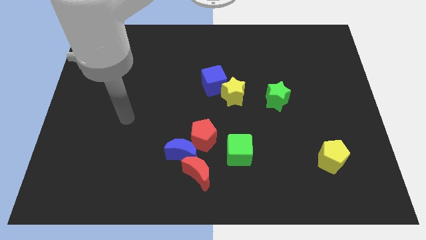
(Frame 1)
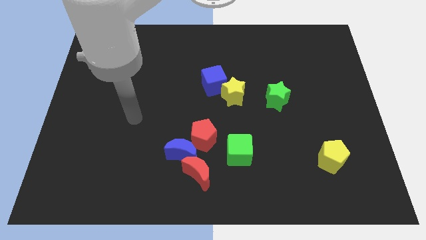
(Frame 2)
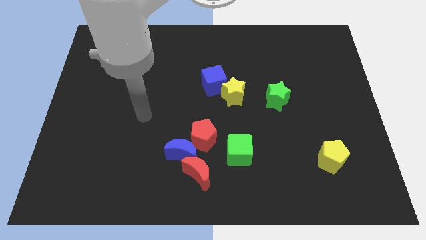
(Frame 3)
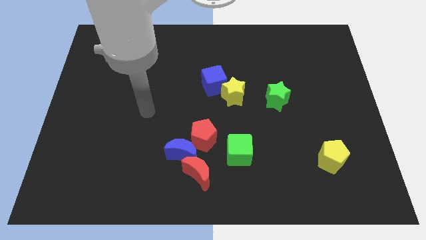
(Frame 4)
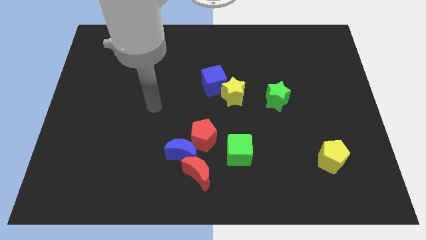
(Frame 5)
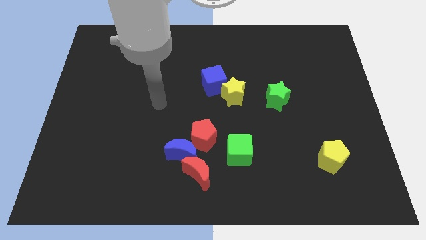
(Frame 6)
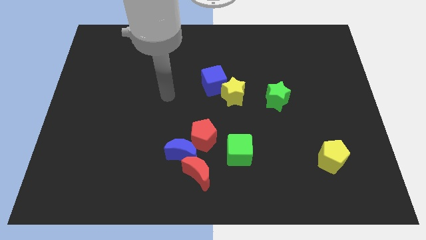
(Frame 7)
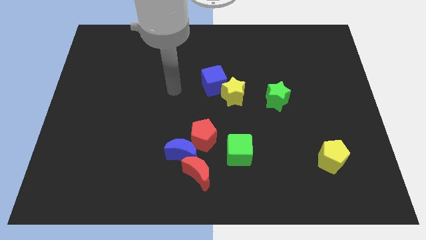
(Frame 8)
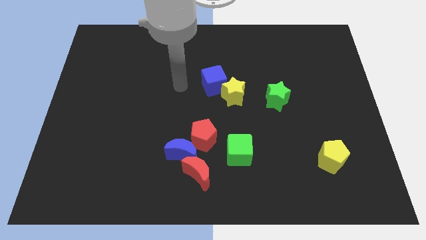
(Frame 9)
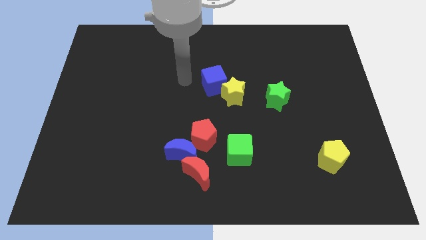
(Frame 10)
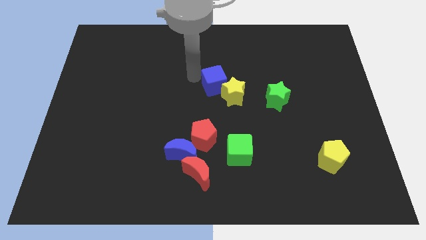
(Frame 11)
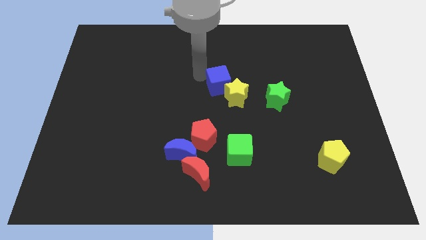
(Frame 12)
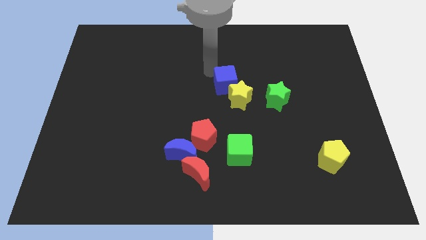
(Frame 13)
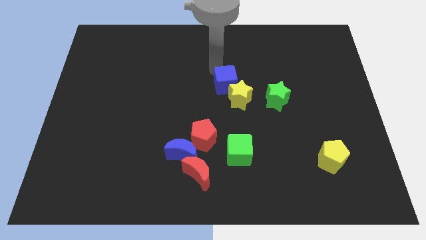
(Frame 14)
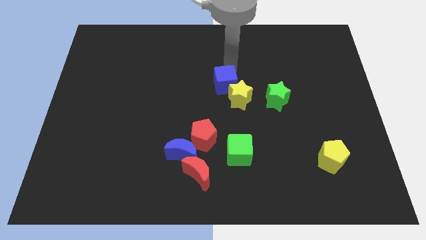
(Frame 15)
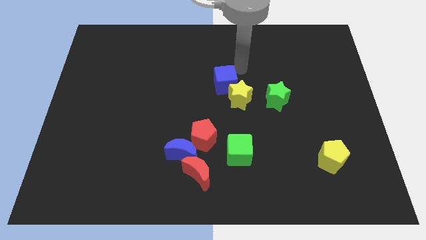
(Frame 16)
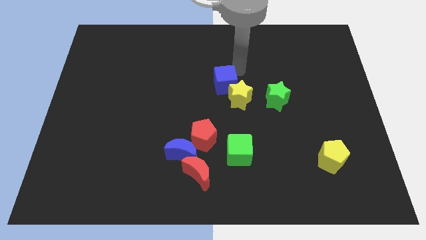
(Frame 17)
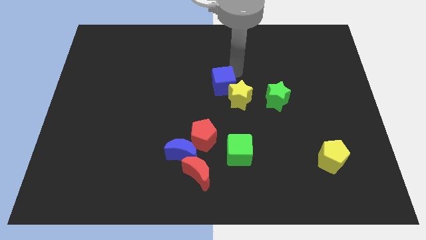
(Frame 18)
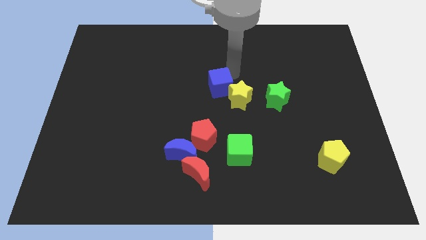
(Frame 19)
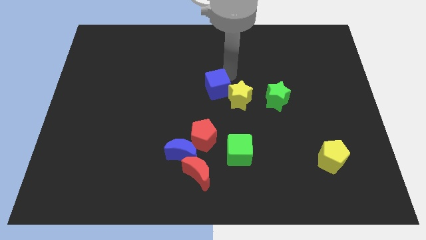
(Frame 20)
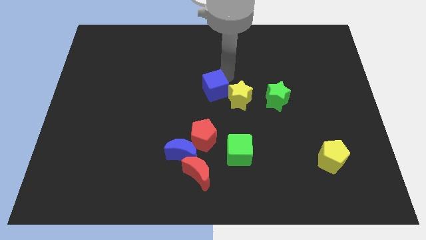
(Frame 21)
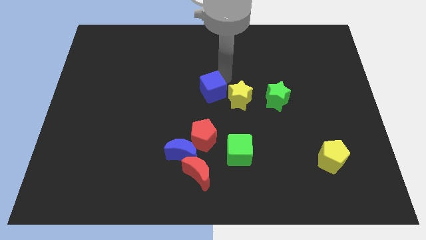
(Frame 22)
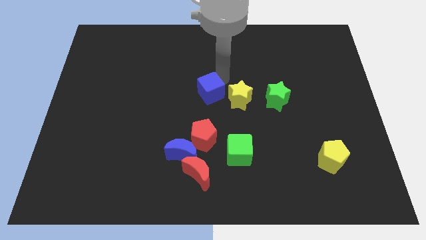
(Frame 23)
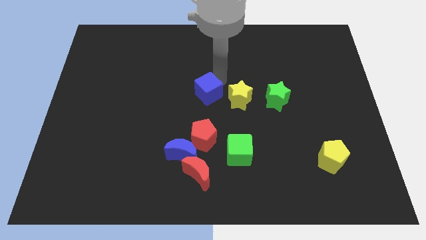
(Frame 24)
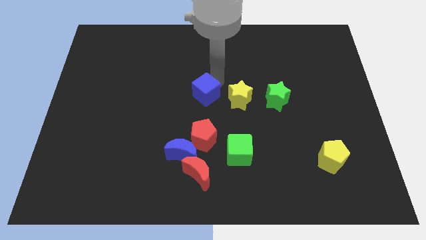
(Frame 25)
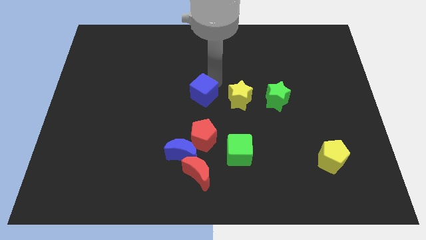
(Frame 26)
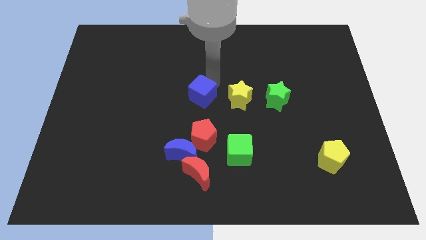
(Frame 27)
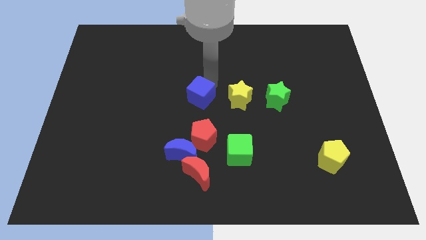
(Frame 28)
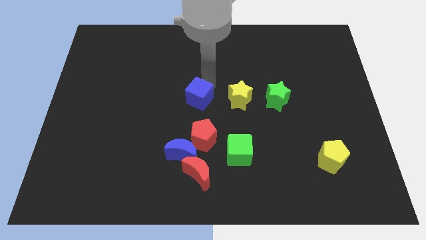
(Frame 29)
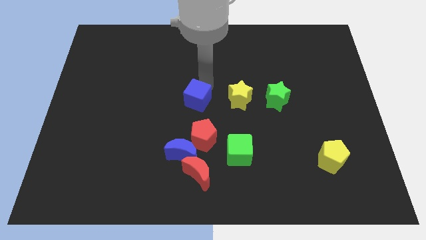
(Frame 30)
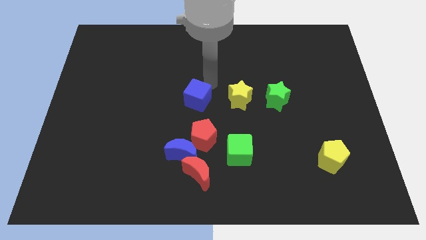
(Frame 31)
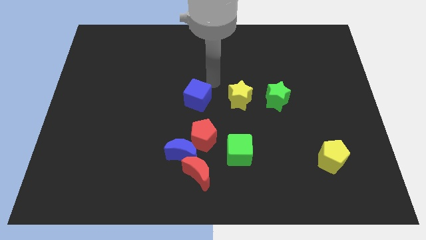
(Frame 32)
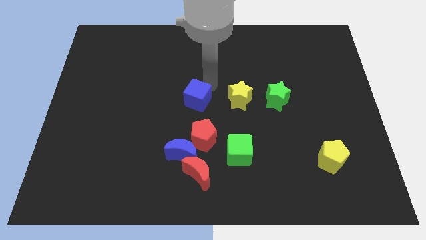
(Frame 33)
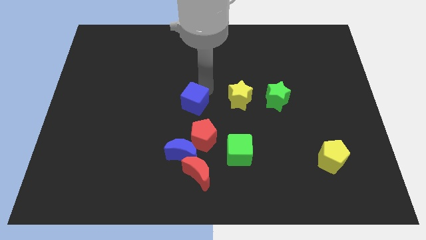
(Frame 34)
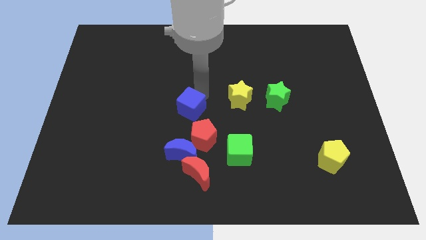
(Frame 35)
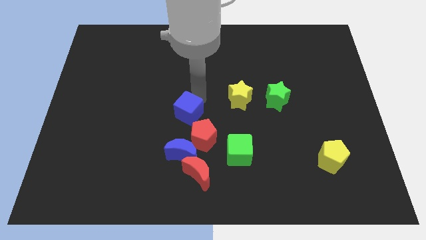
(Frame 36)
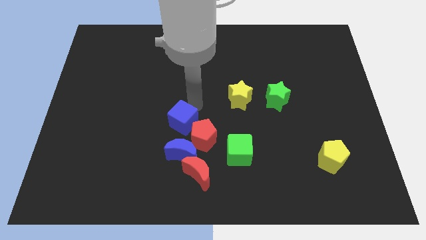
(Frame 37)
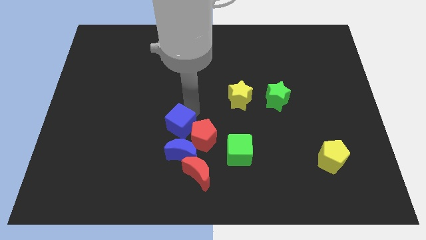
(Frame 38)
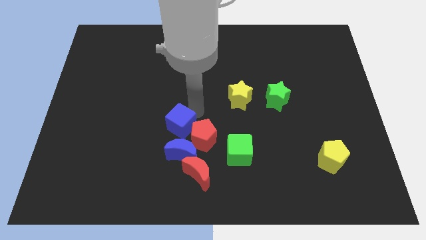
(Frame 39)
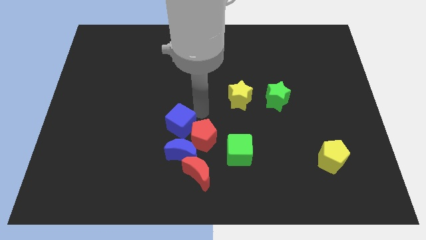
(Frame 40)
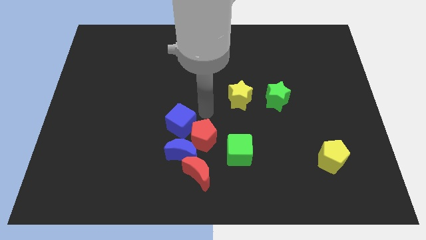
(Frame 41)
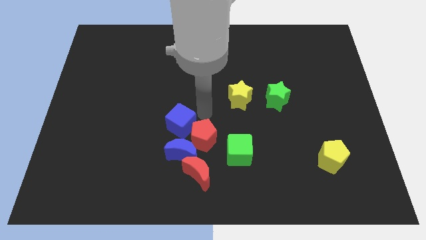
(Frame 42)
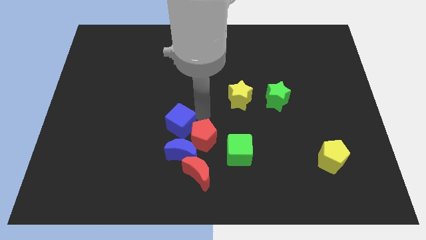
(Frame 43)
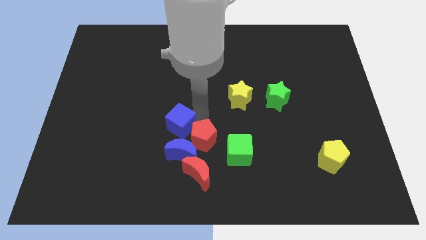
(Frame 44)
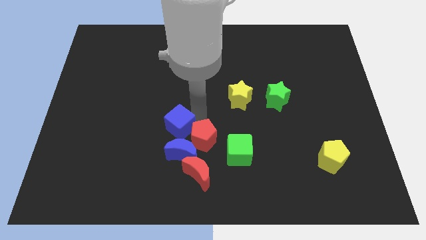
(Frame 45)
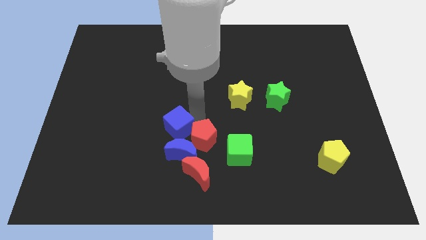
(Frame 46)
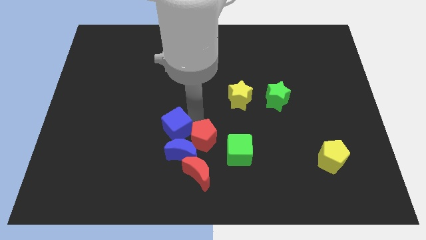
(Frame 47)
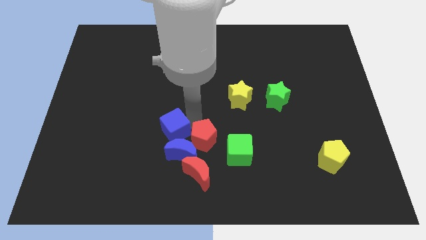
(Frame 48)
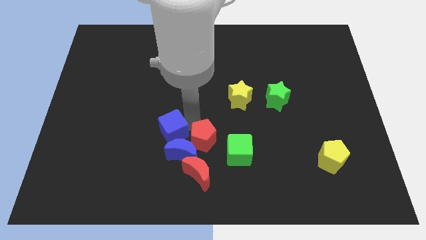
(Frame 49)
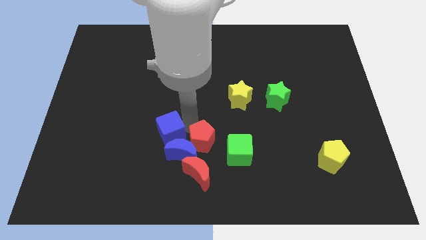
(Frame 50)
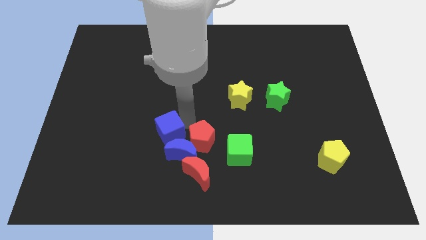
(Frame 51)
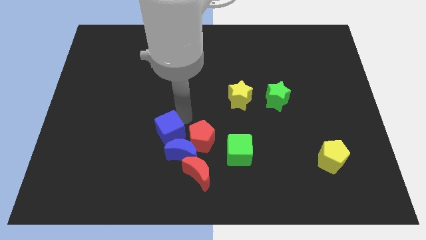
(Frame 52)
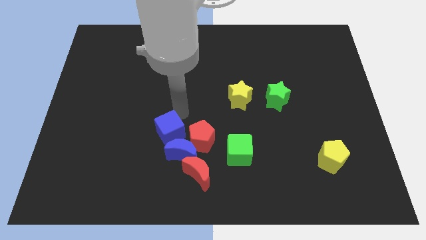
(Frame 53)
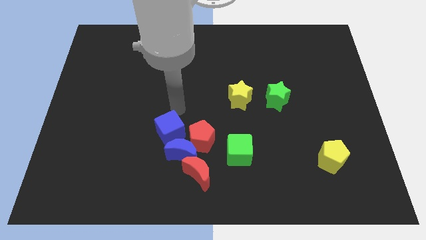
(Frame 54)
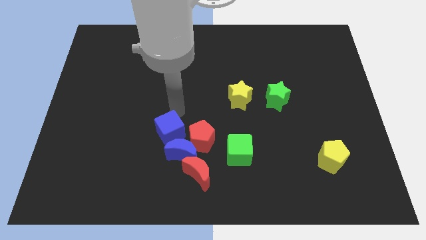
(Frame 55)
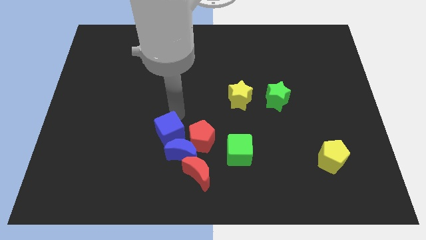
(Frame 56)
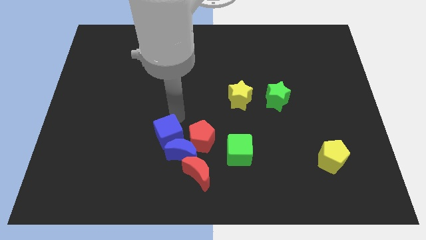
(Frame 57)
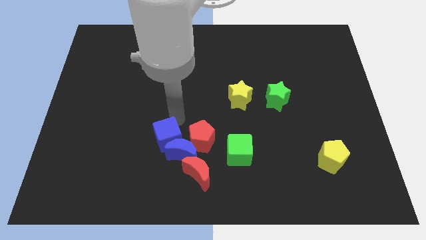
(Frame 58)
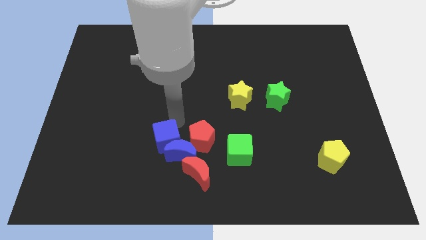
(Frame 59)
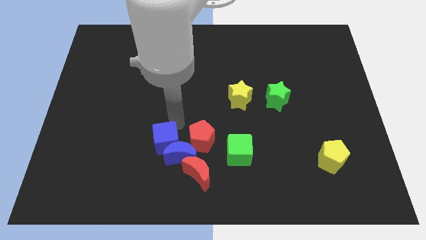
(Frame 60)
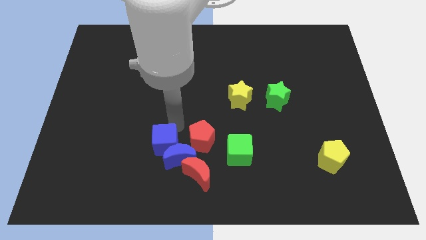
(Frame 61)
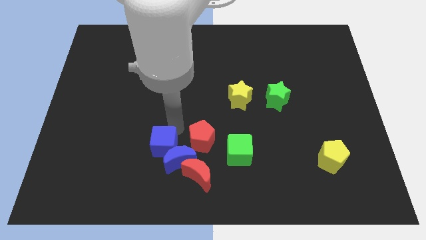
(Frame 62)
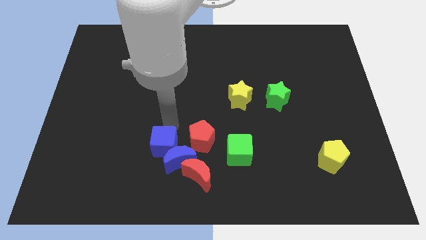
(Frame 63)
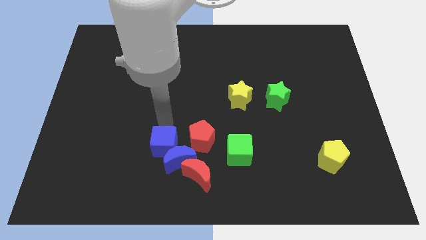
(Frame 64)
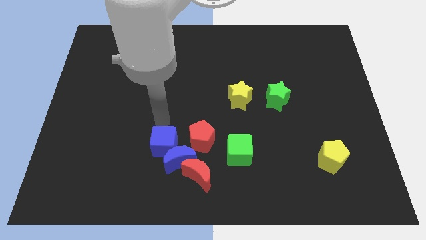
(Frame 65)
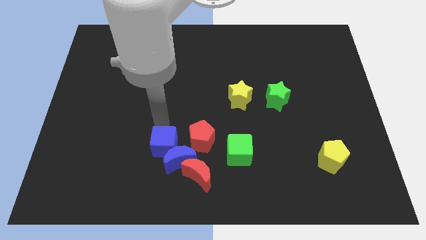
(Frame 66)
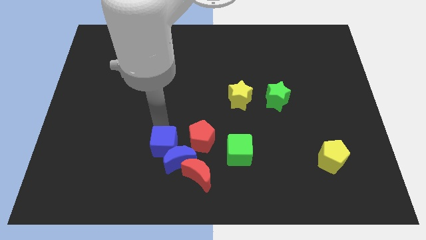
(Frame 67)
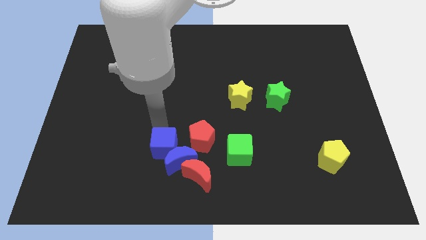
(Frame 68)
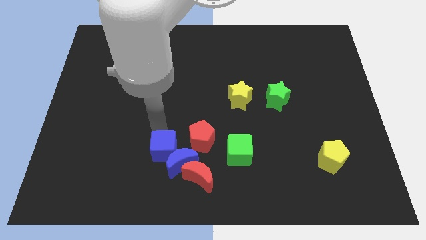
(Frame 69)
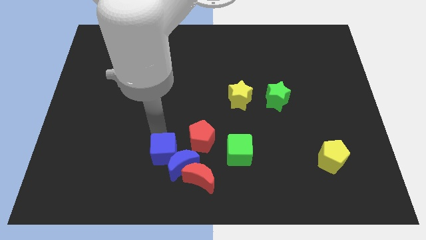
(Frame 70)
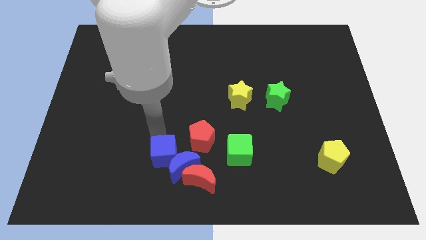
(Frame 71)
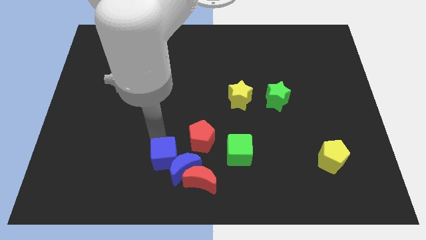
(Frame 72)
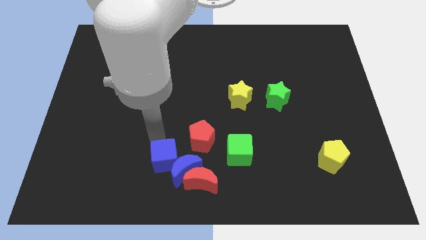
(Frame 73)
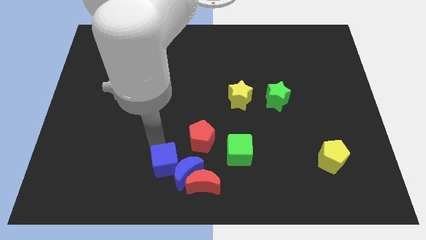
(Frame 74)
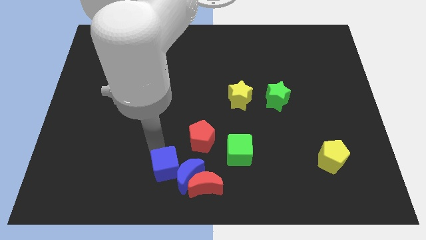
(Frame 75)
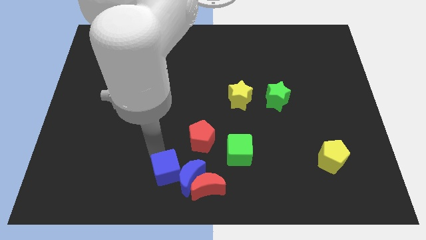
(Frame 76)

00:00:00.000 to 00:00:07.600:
move the blue cube to the bottom side
